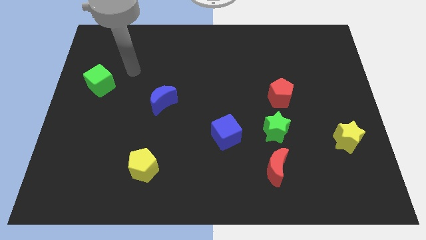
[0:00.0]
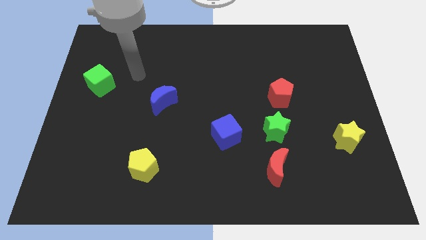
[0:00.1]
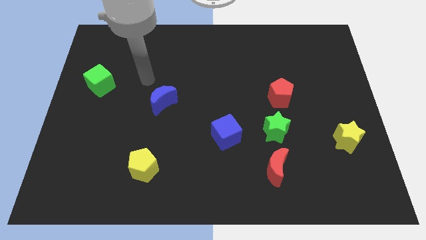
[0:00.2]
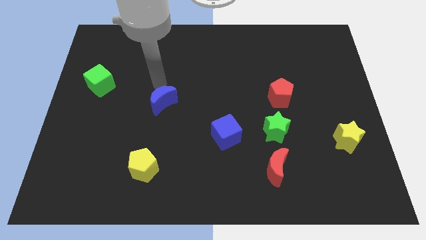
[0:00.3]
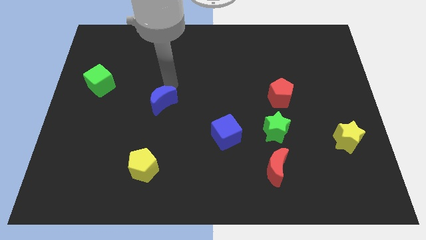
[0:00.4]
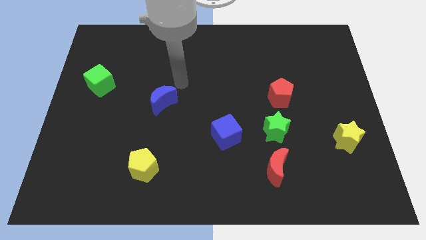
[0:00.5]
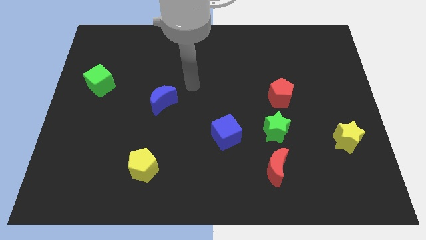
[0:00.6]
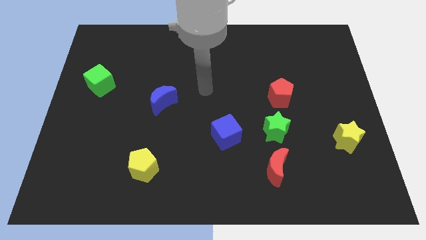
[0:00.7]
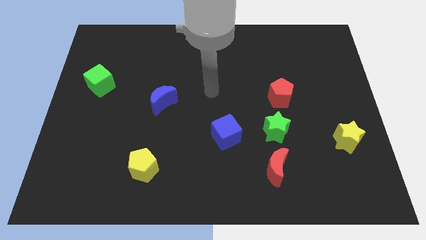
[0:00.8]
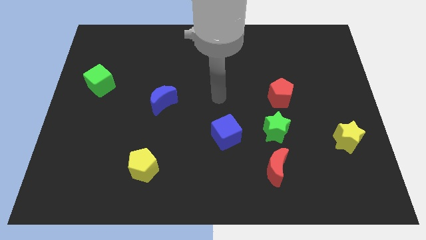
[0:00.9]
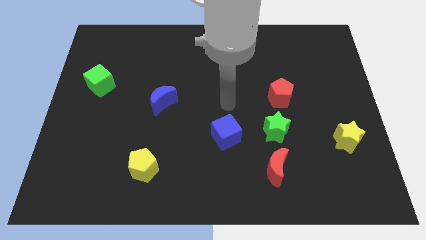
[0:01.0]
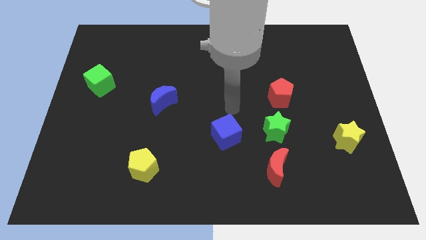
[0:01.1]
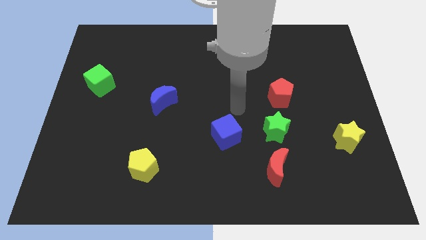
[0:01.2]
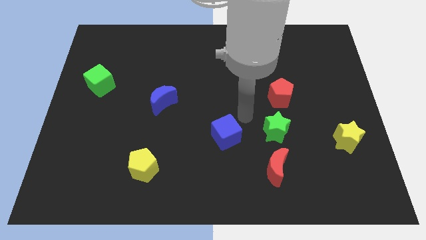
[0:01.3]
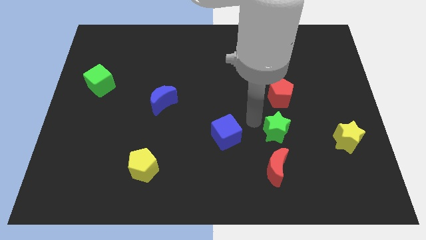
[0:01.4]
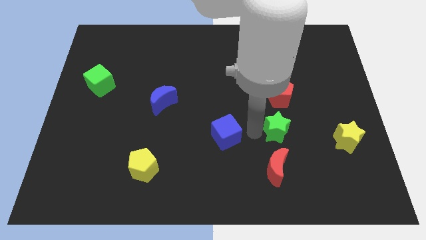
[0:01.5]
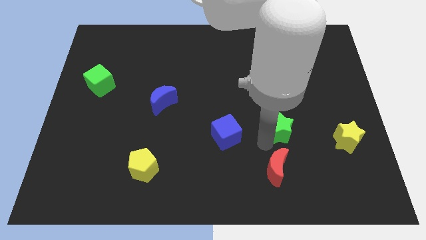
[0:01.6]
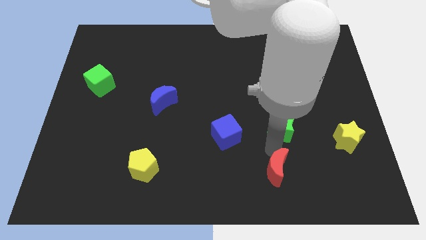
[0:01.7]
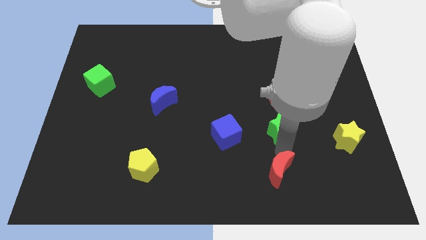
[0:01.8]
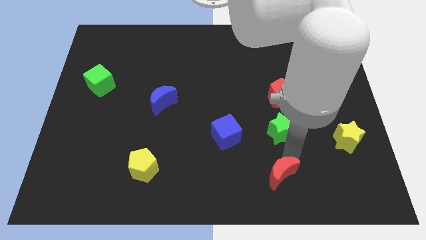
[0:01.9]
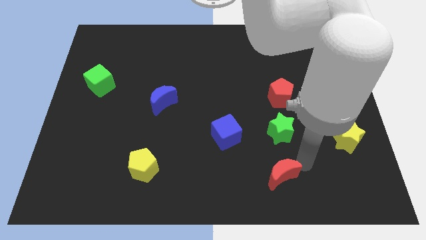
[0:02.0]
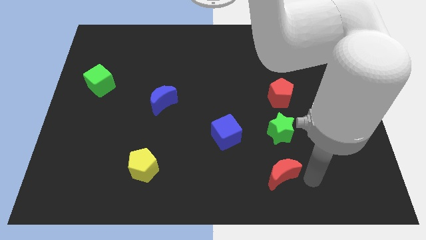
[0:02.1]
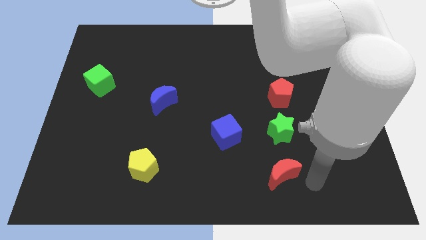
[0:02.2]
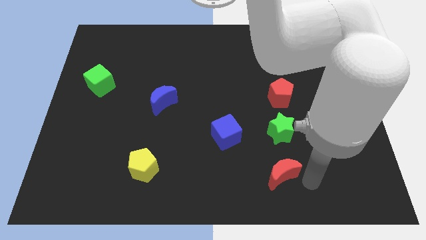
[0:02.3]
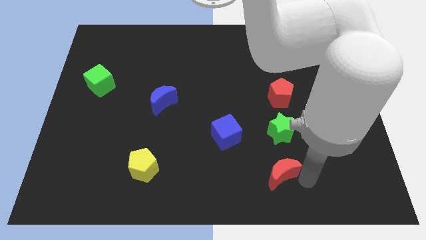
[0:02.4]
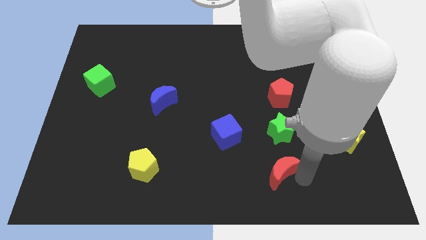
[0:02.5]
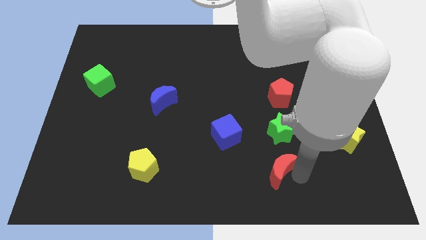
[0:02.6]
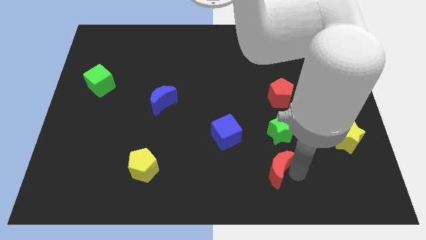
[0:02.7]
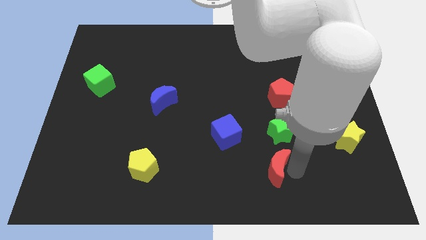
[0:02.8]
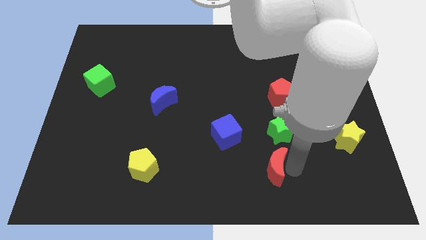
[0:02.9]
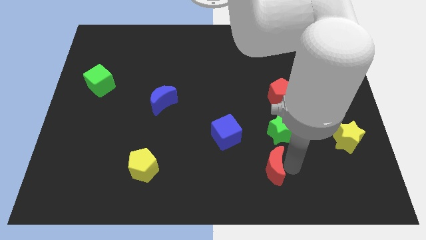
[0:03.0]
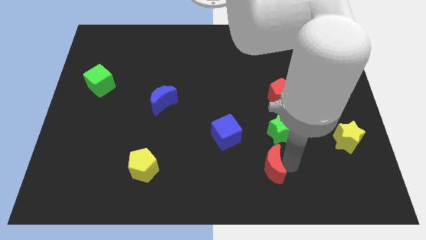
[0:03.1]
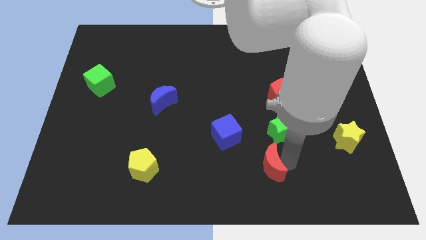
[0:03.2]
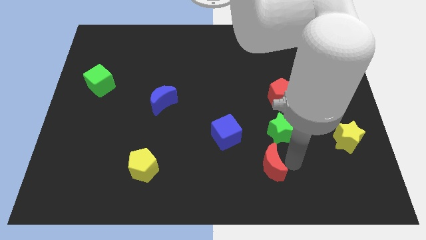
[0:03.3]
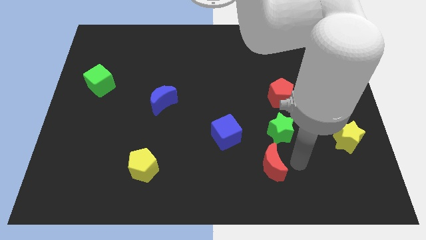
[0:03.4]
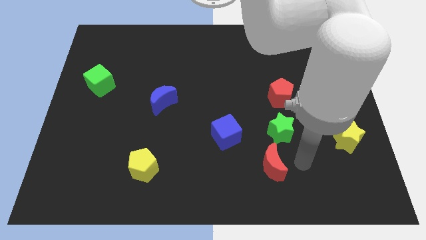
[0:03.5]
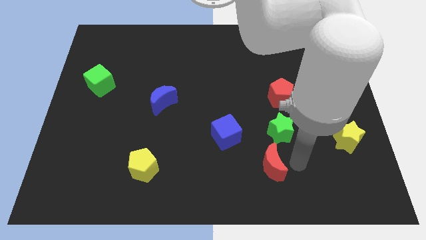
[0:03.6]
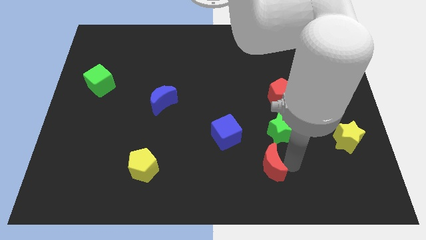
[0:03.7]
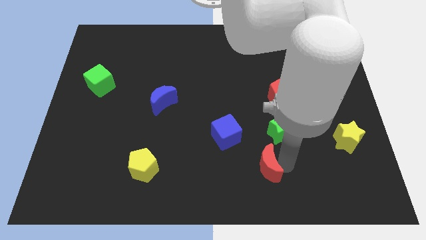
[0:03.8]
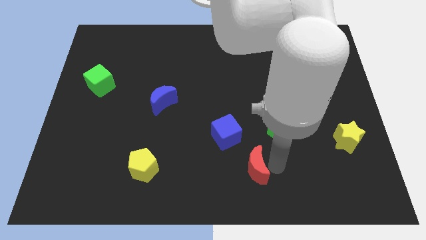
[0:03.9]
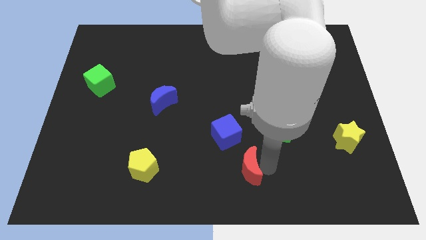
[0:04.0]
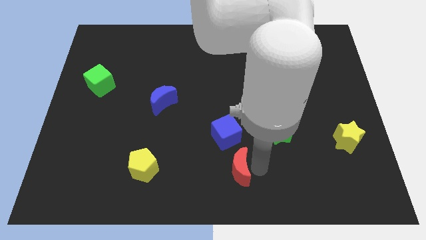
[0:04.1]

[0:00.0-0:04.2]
move the red moon to the left slightly

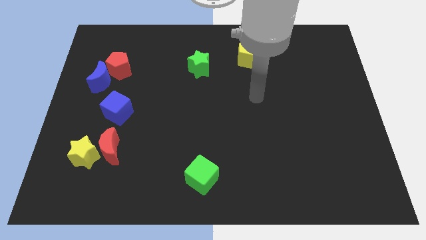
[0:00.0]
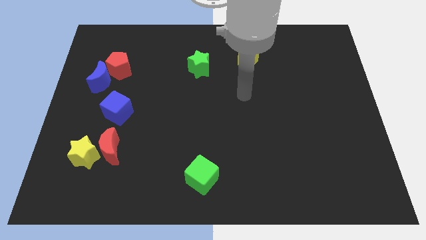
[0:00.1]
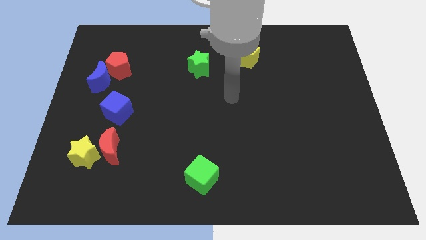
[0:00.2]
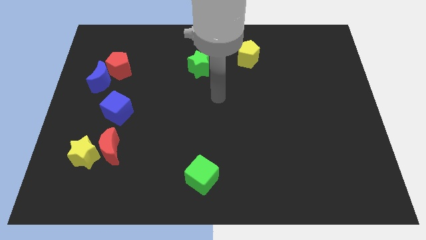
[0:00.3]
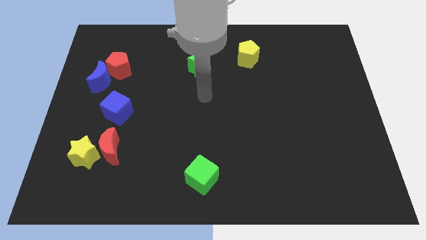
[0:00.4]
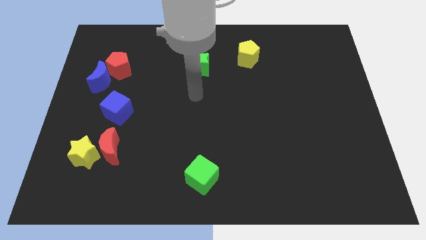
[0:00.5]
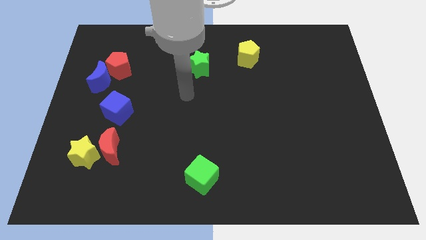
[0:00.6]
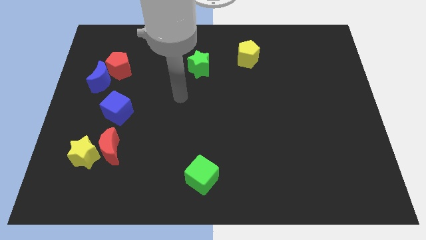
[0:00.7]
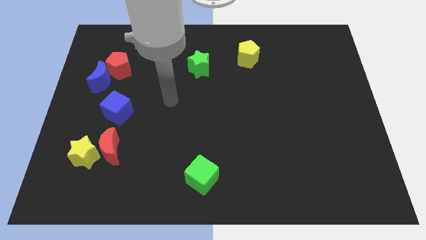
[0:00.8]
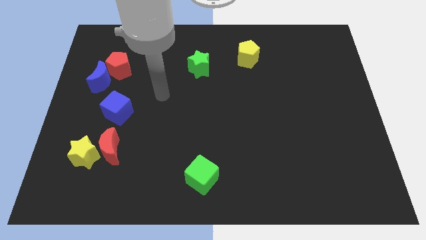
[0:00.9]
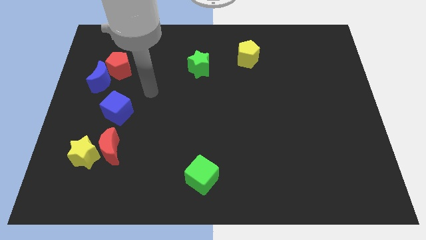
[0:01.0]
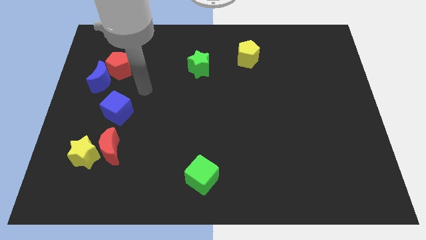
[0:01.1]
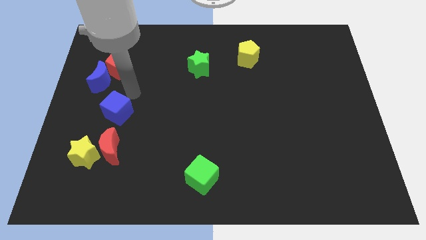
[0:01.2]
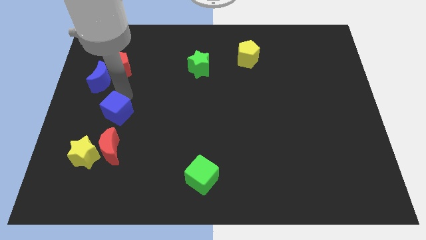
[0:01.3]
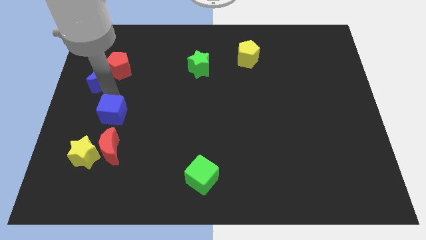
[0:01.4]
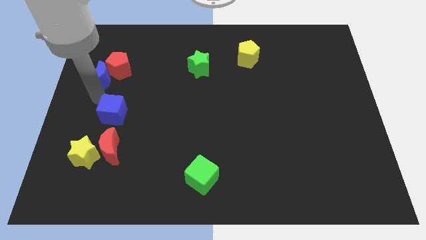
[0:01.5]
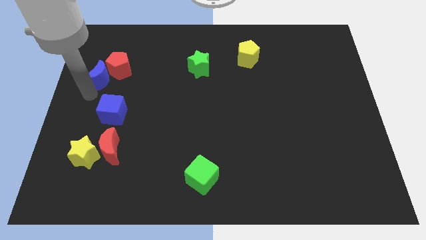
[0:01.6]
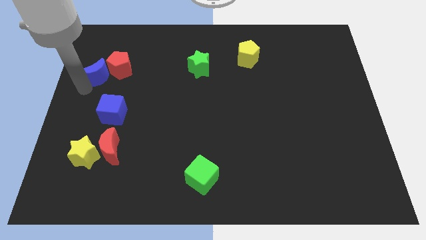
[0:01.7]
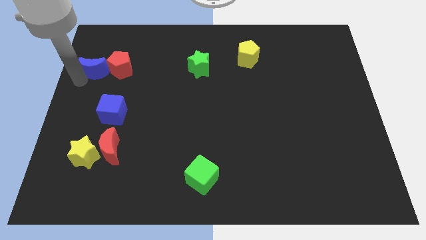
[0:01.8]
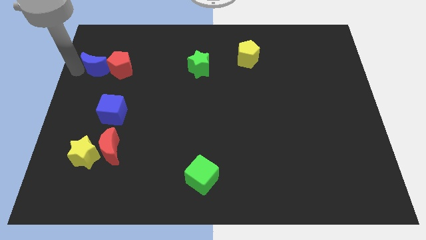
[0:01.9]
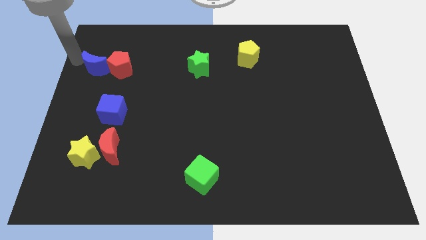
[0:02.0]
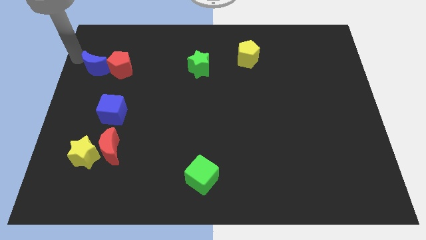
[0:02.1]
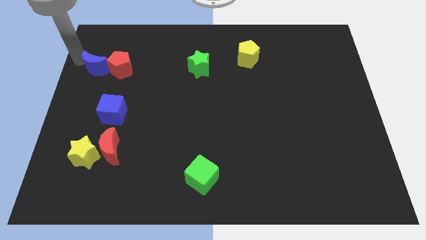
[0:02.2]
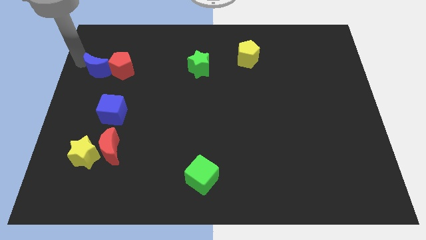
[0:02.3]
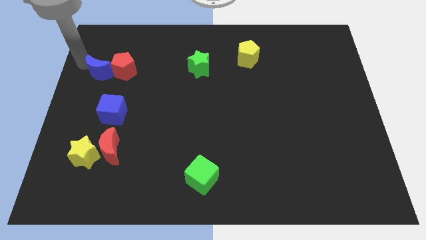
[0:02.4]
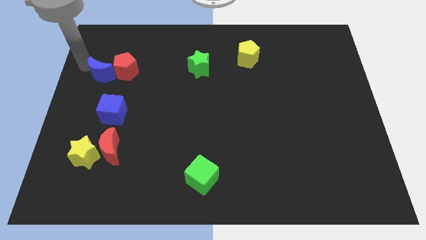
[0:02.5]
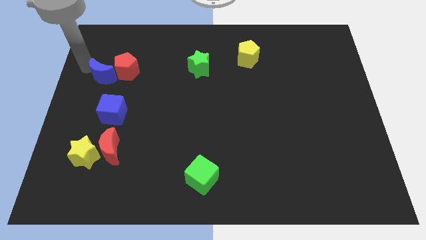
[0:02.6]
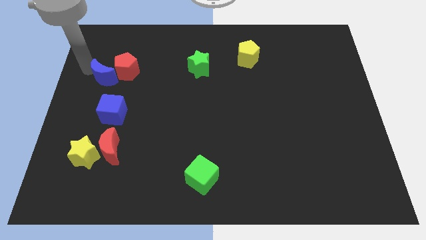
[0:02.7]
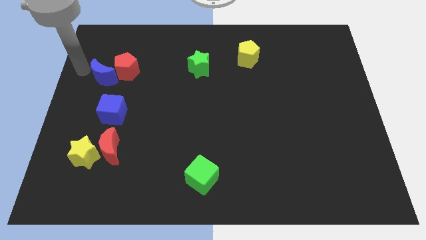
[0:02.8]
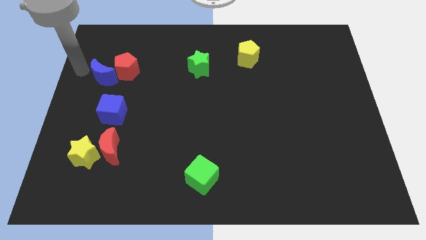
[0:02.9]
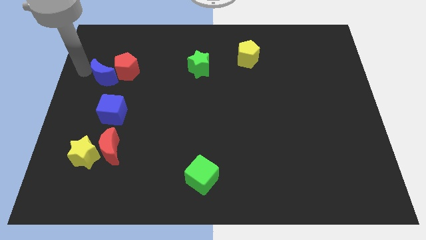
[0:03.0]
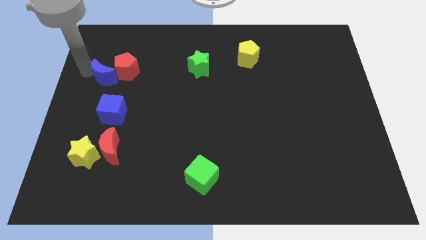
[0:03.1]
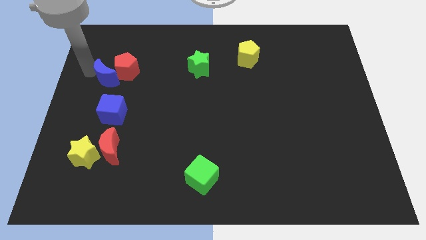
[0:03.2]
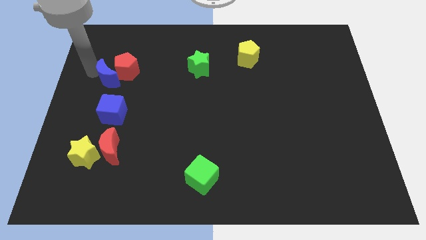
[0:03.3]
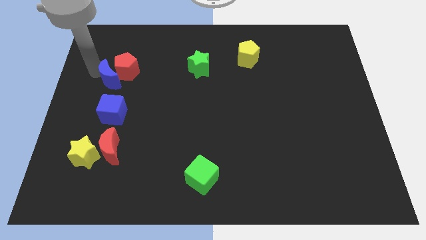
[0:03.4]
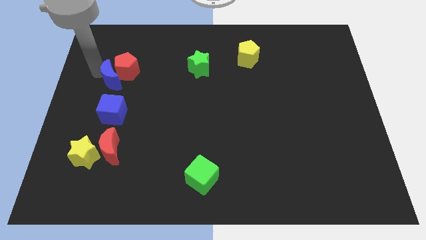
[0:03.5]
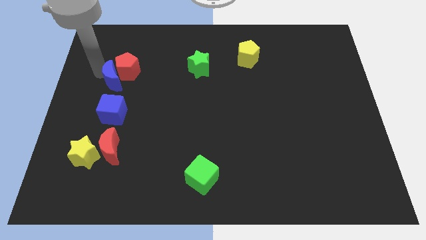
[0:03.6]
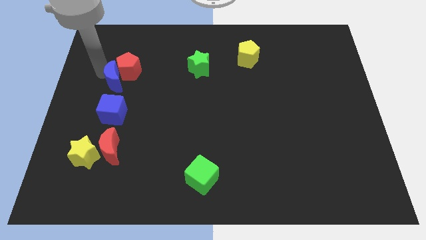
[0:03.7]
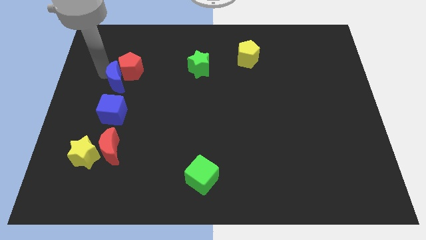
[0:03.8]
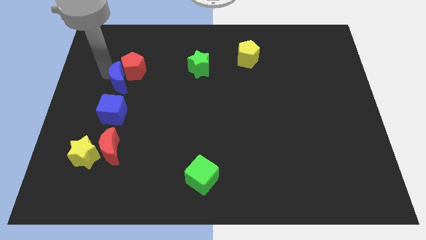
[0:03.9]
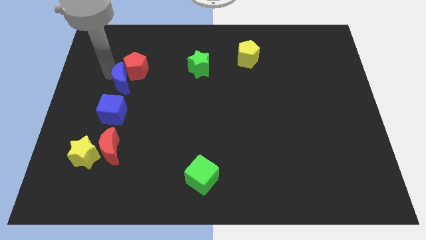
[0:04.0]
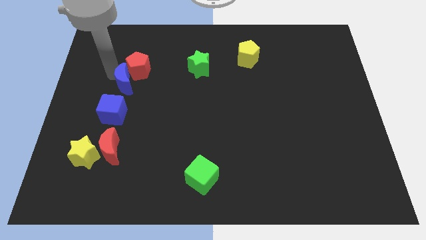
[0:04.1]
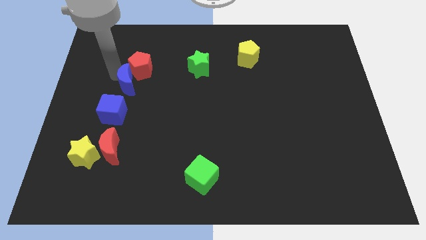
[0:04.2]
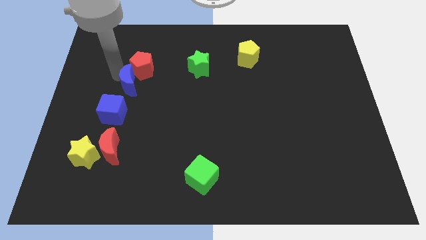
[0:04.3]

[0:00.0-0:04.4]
slightly push the blue moon right
